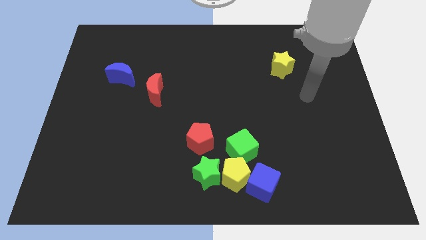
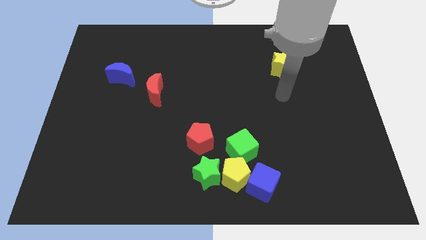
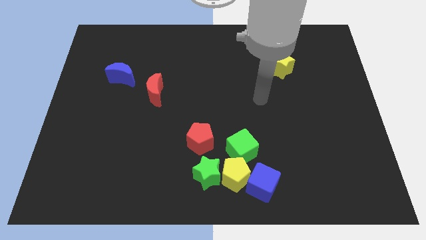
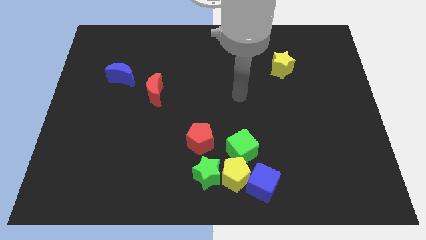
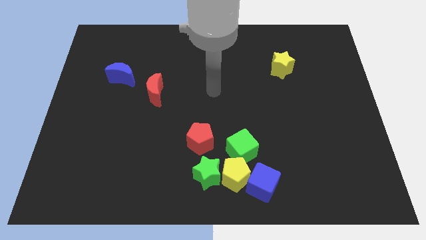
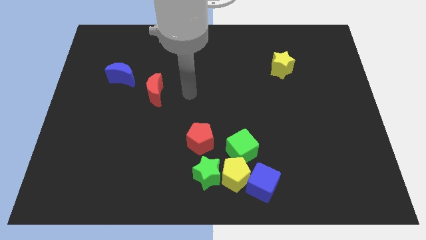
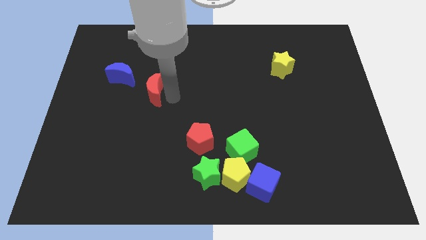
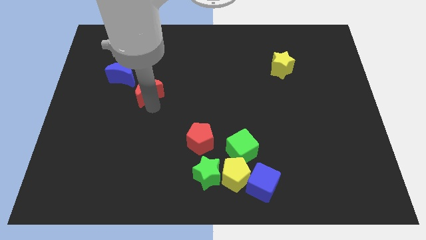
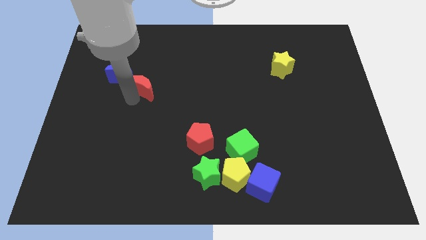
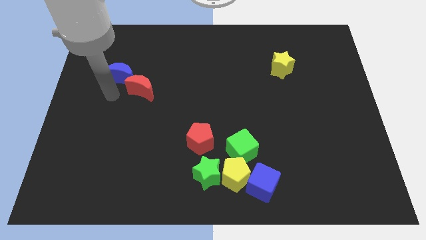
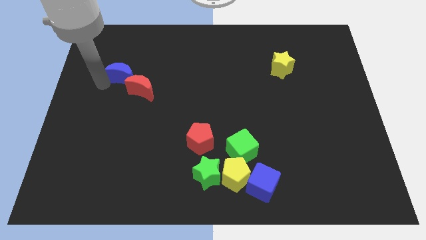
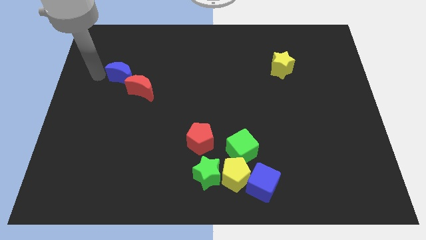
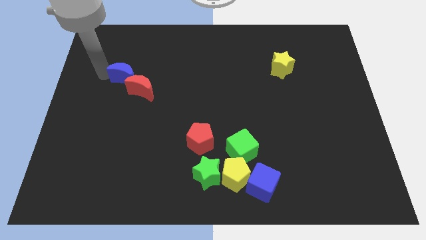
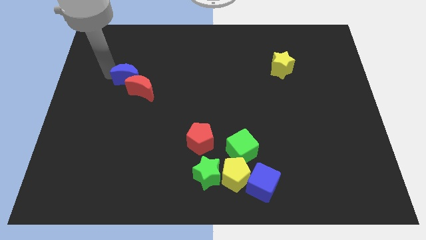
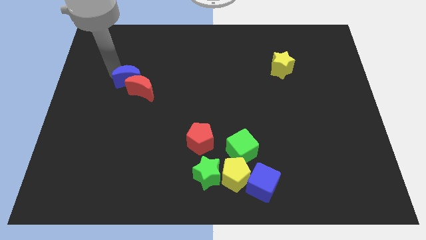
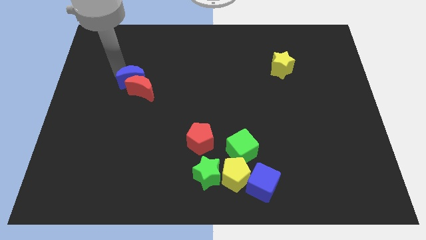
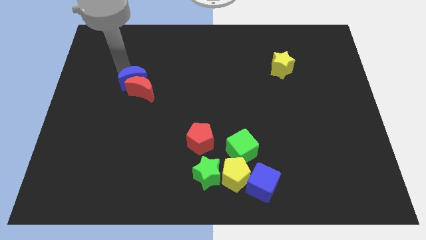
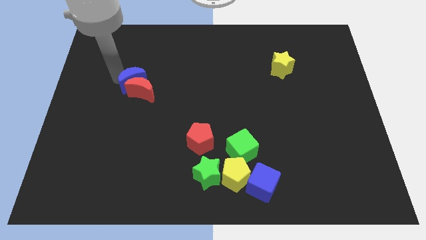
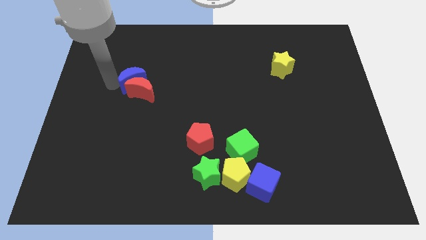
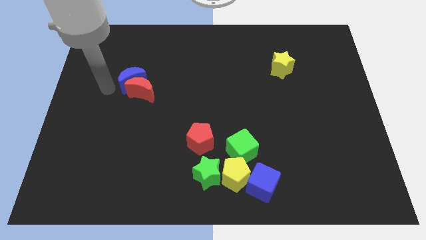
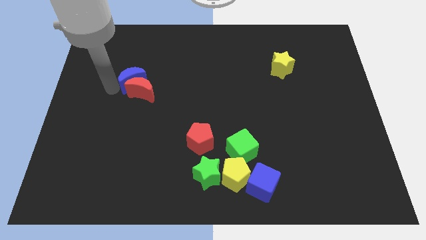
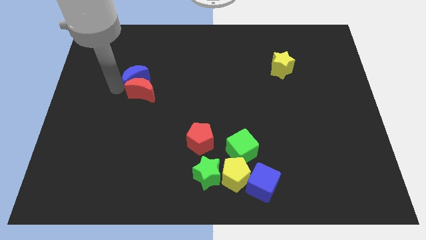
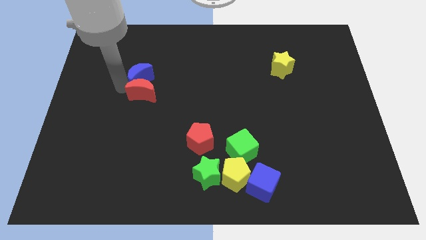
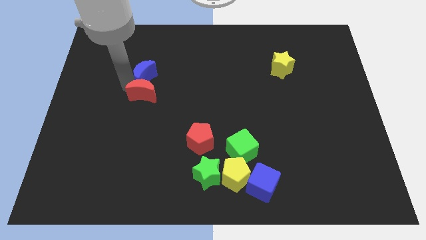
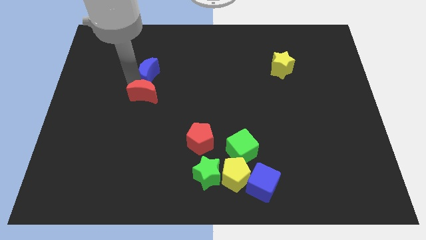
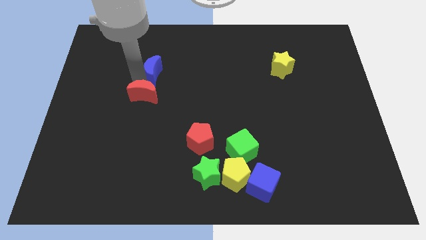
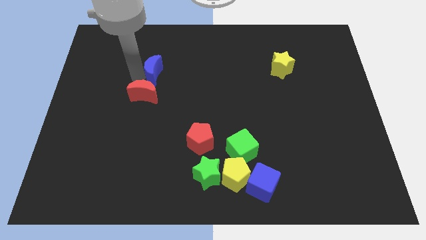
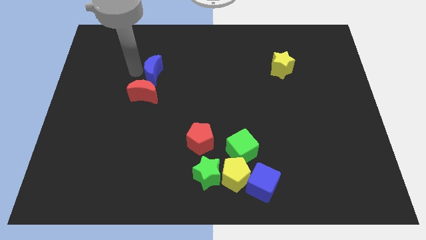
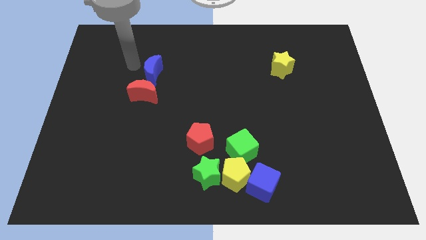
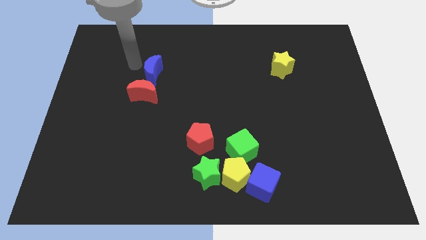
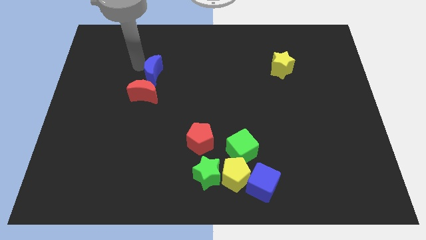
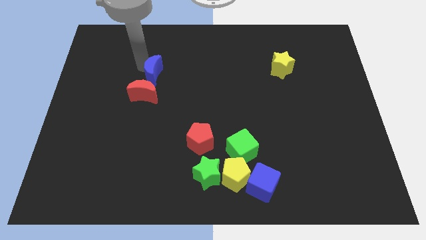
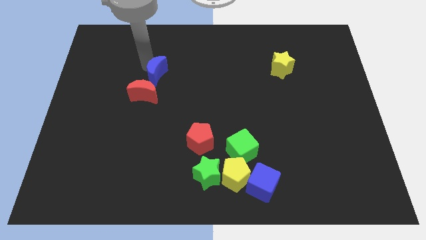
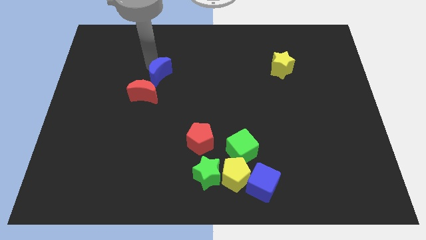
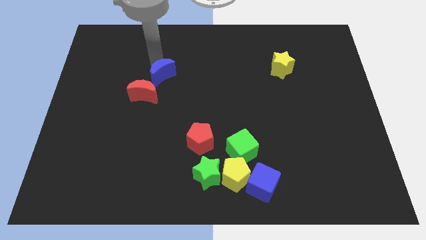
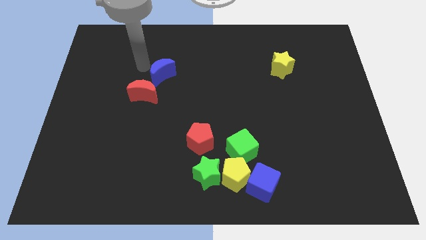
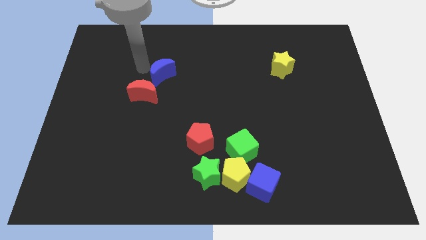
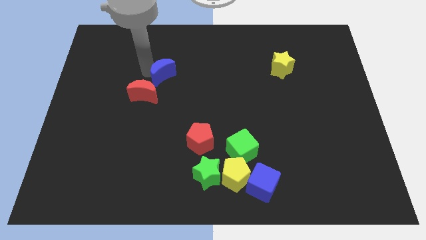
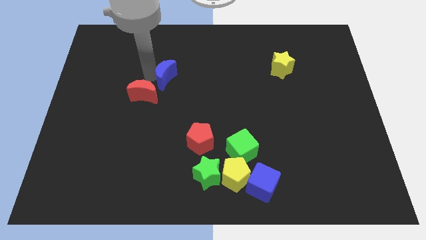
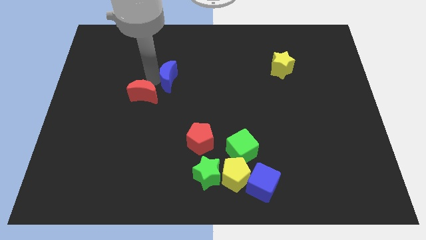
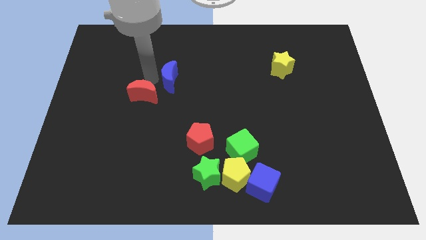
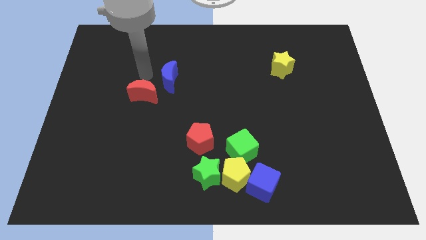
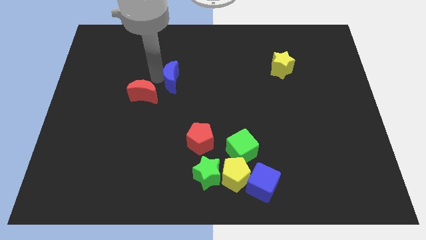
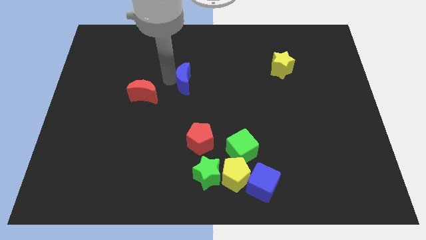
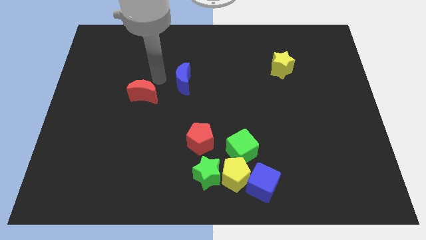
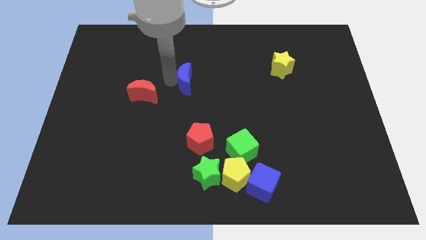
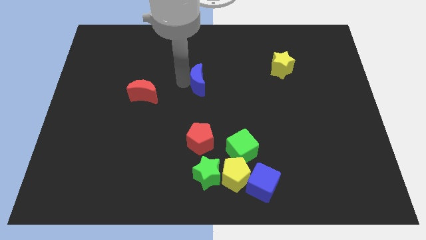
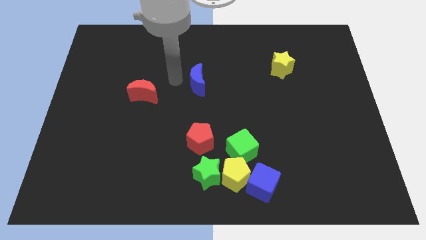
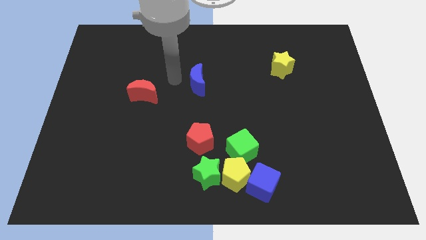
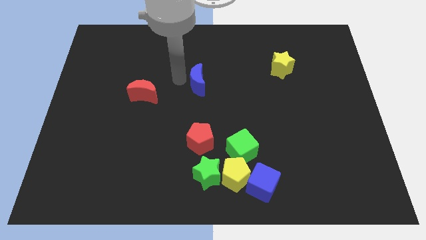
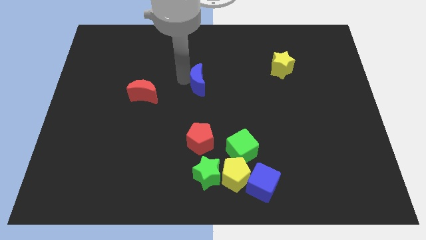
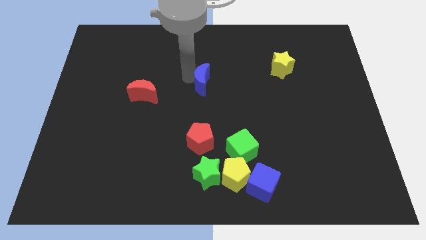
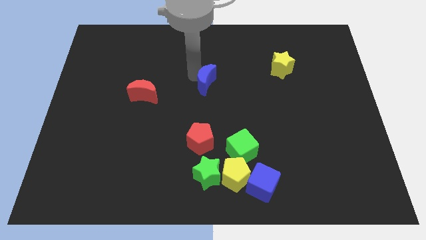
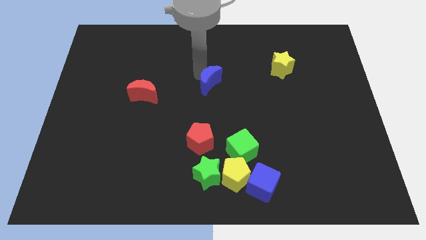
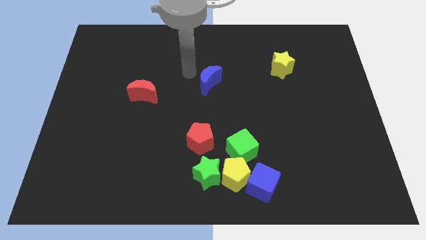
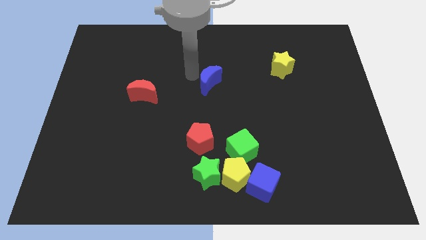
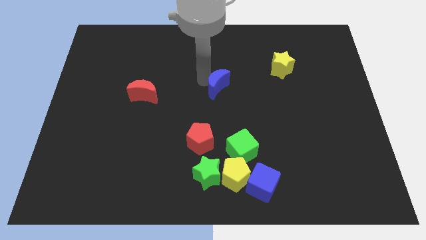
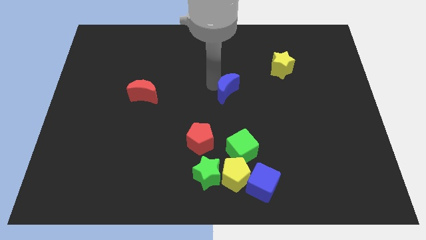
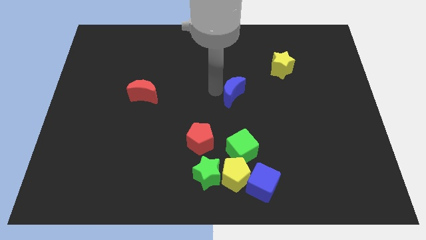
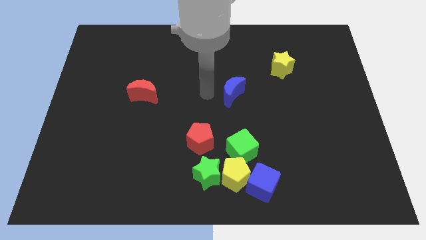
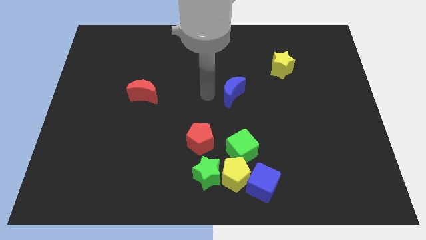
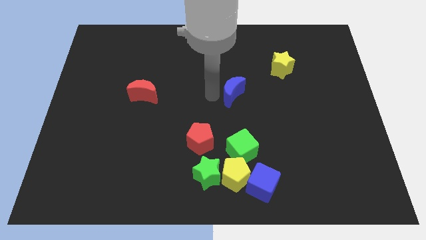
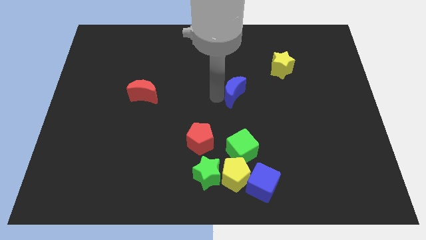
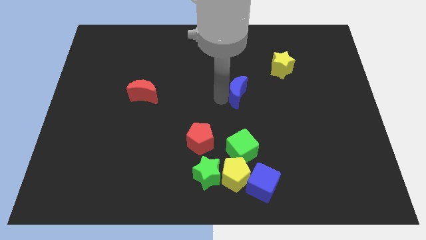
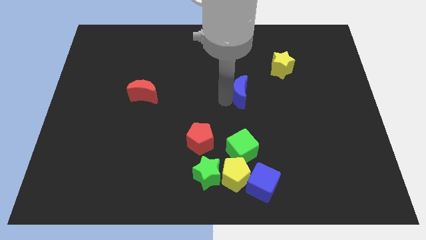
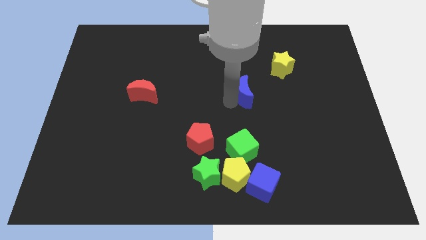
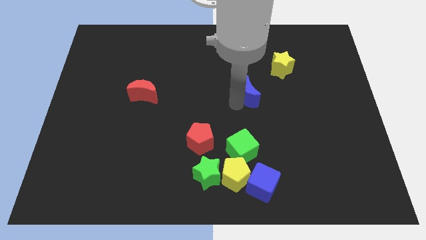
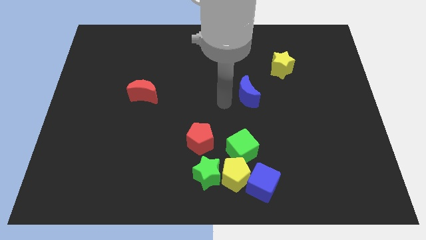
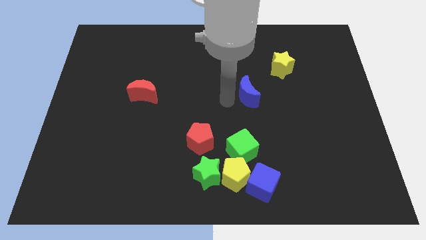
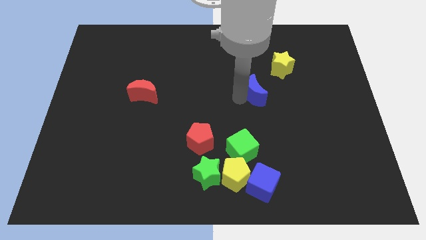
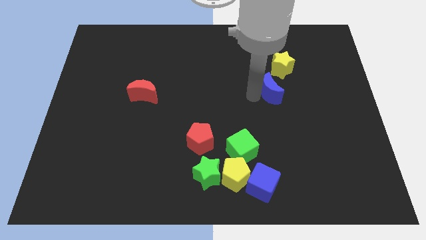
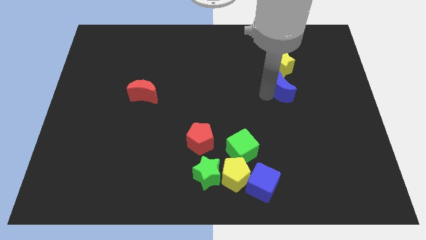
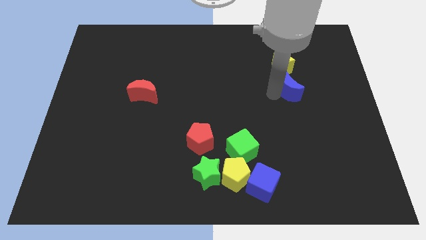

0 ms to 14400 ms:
put the blue moon to the bottom right of the yellow star
